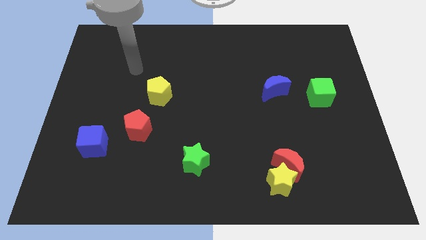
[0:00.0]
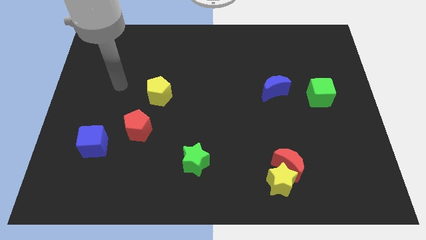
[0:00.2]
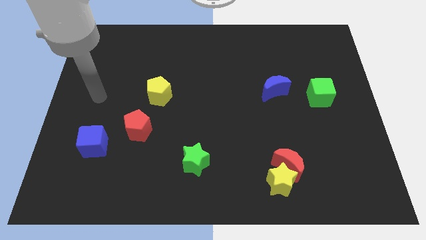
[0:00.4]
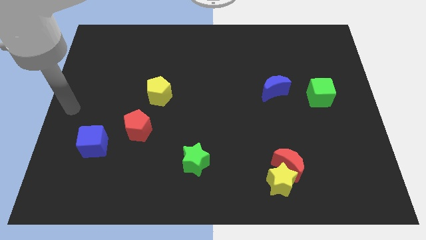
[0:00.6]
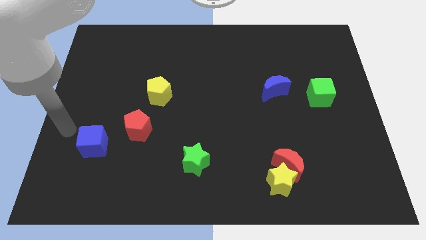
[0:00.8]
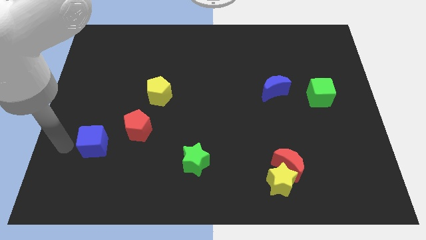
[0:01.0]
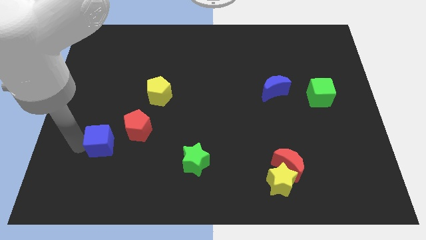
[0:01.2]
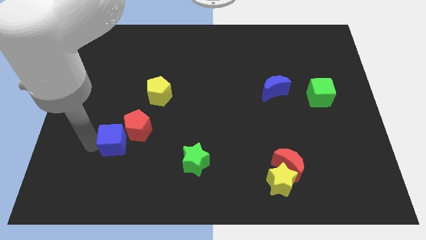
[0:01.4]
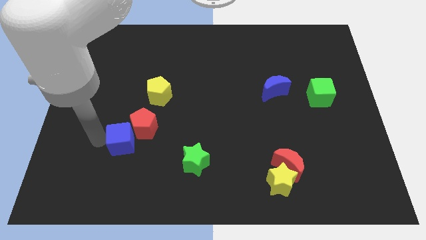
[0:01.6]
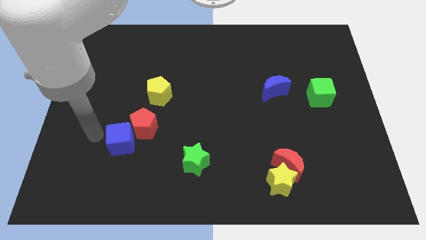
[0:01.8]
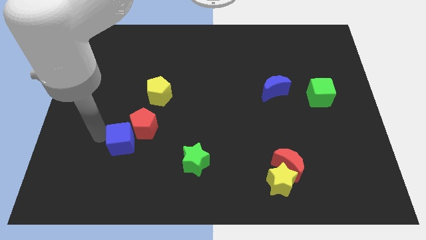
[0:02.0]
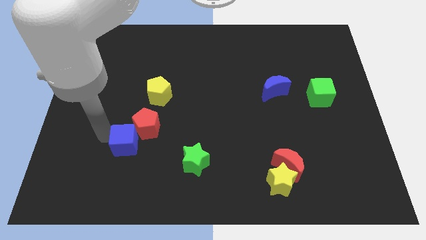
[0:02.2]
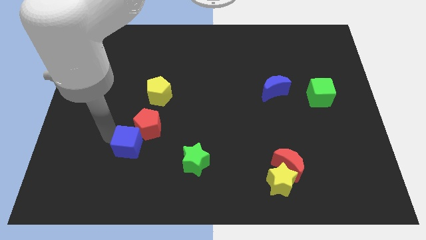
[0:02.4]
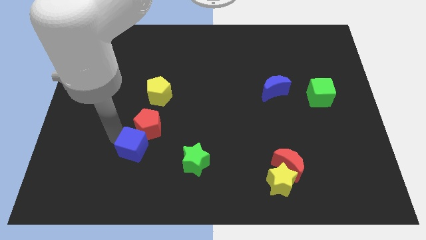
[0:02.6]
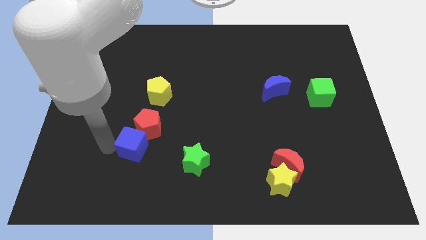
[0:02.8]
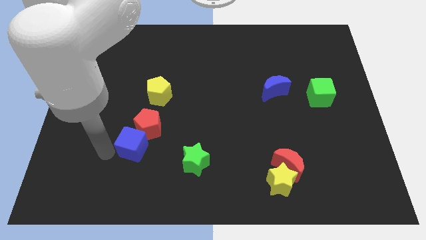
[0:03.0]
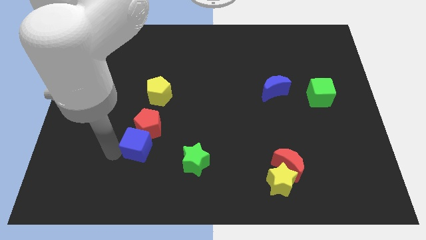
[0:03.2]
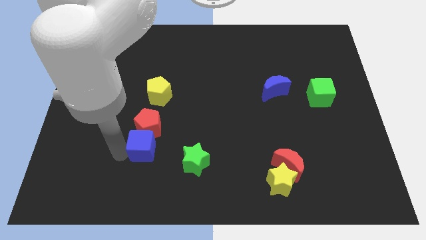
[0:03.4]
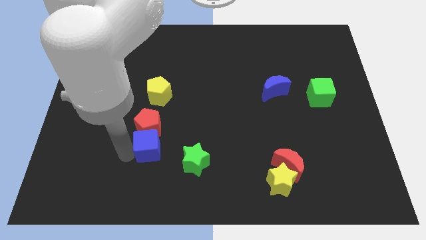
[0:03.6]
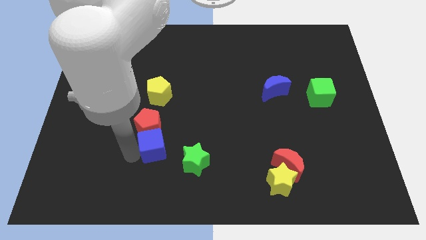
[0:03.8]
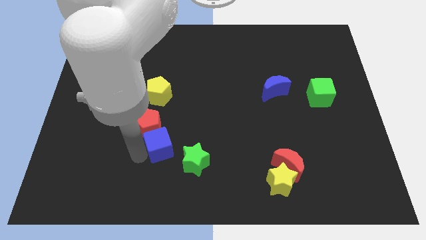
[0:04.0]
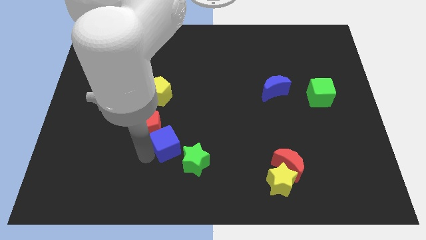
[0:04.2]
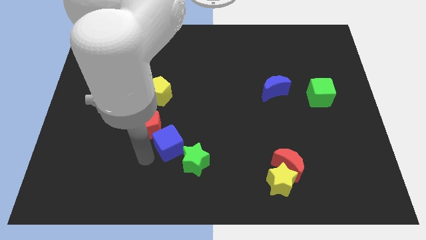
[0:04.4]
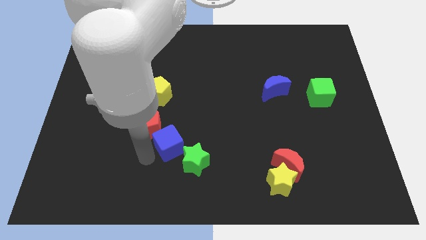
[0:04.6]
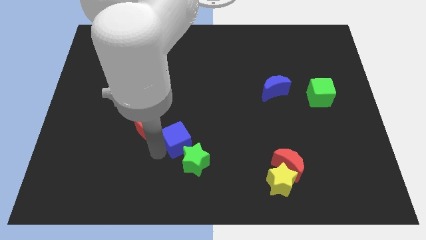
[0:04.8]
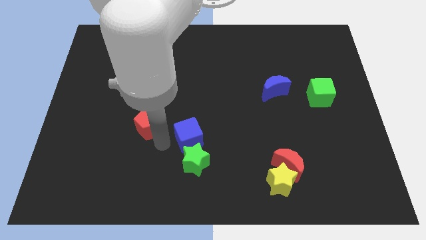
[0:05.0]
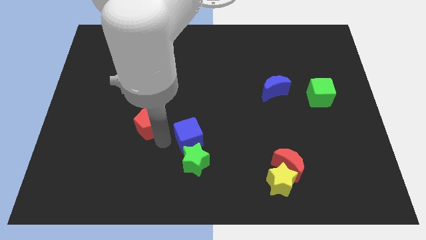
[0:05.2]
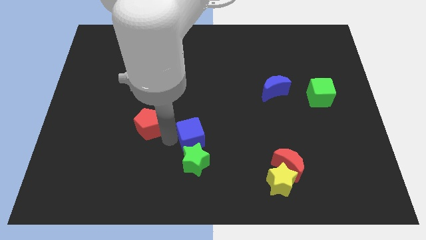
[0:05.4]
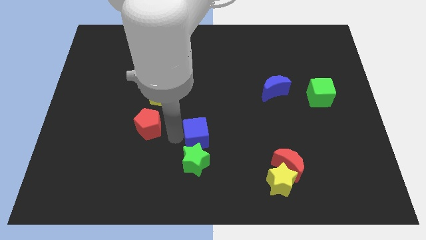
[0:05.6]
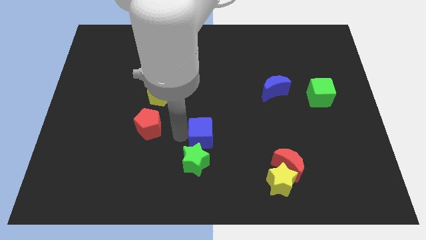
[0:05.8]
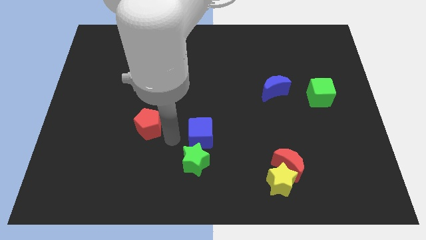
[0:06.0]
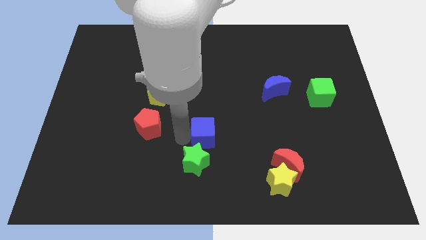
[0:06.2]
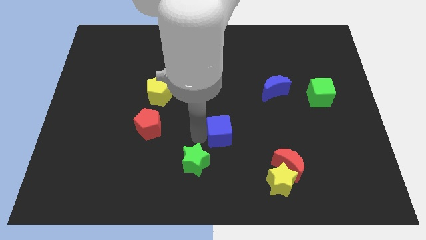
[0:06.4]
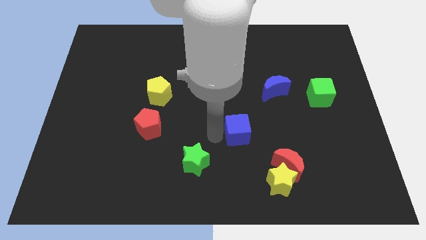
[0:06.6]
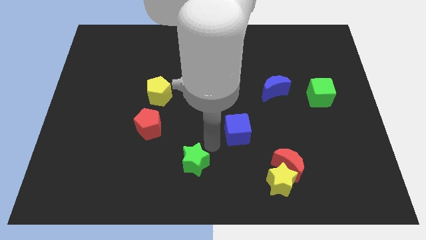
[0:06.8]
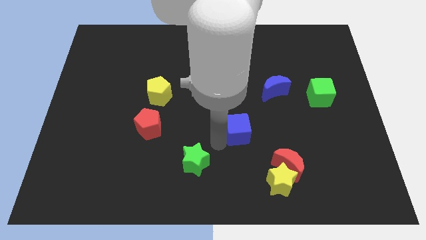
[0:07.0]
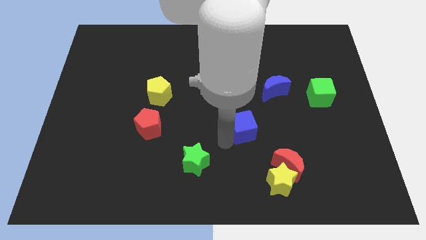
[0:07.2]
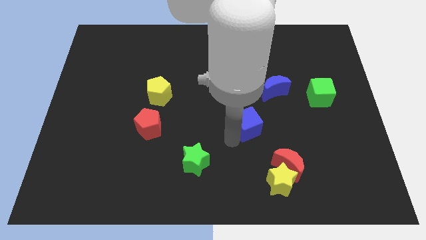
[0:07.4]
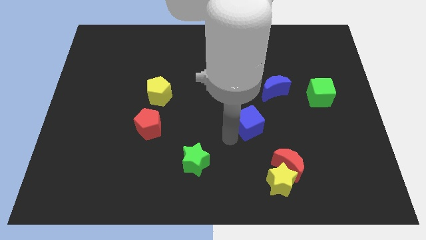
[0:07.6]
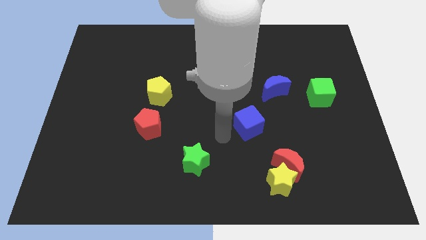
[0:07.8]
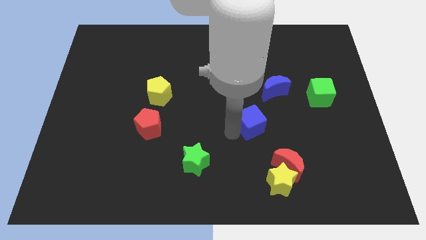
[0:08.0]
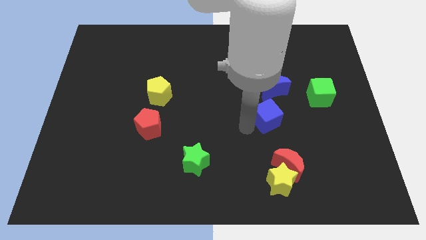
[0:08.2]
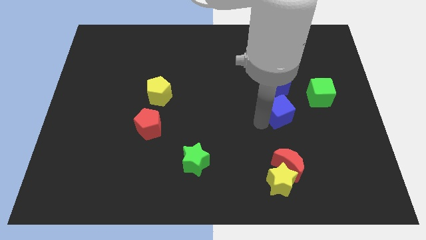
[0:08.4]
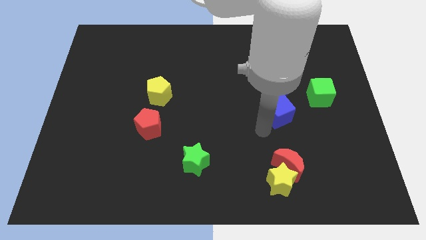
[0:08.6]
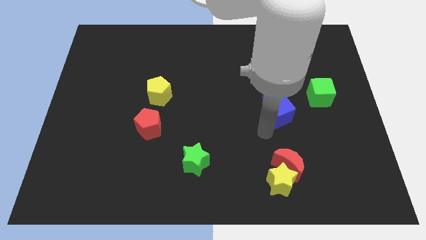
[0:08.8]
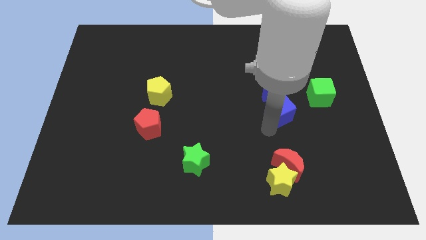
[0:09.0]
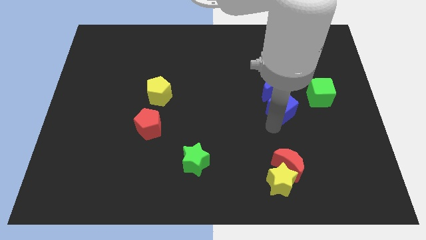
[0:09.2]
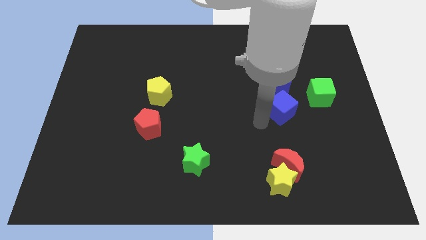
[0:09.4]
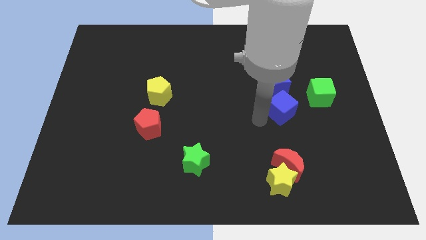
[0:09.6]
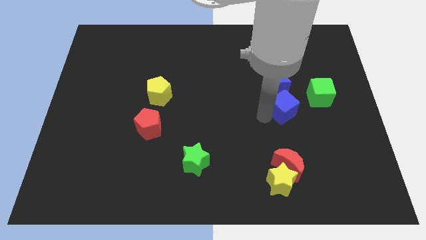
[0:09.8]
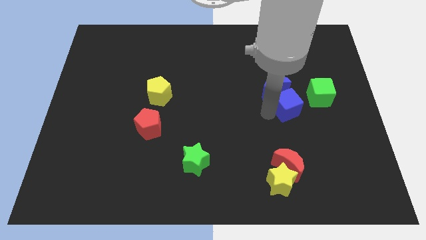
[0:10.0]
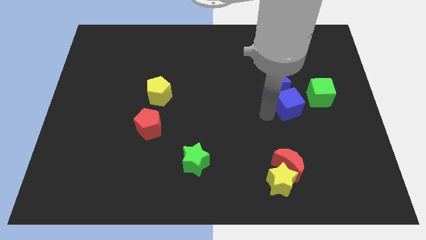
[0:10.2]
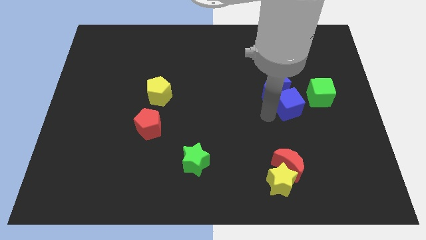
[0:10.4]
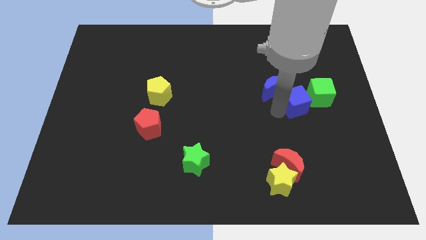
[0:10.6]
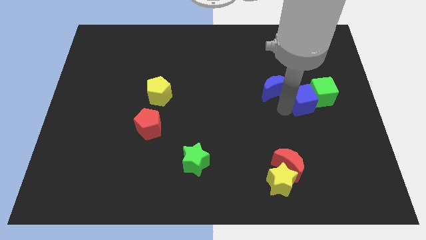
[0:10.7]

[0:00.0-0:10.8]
put the blue cube towards the green cube
